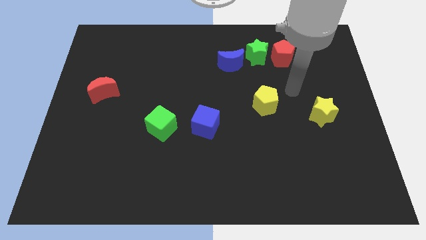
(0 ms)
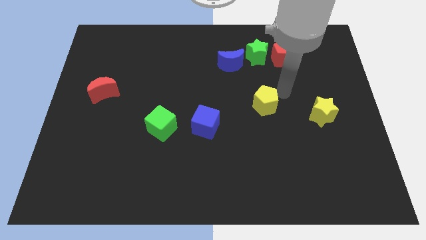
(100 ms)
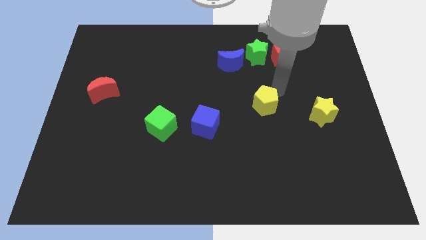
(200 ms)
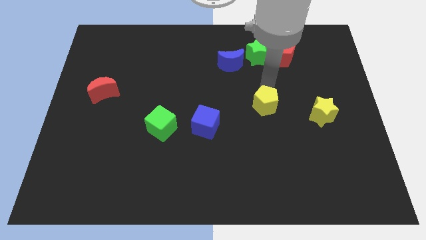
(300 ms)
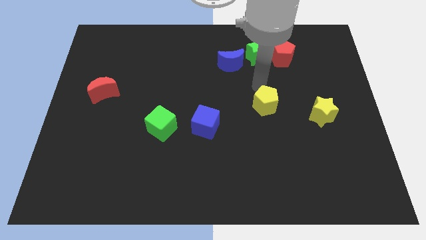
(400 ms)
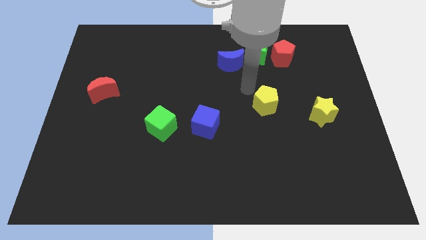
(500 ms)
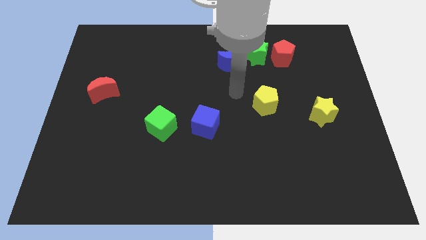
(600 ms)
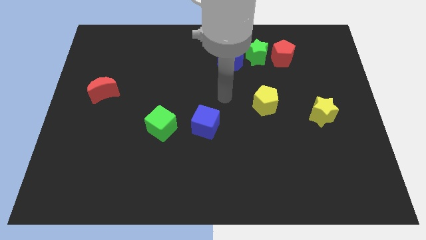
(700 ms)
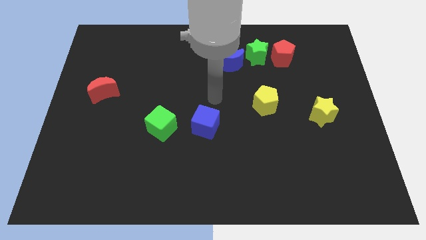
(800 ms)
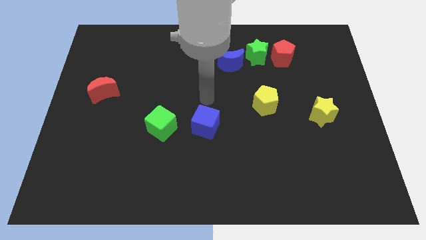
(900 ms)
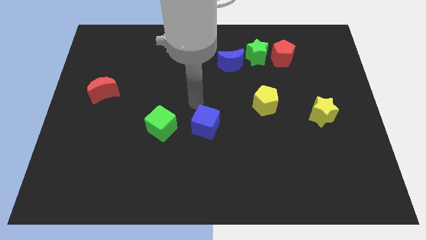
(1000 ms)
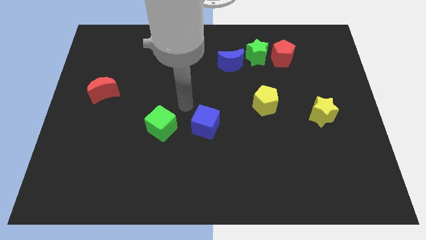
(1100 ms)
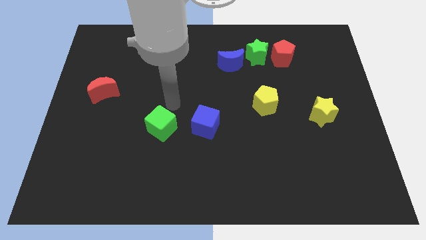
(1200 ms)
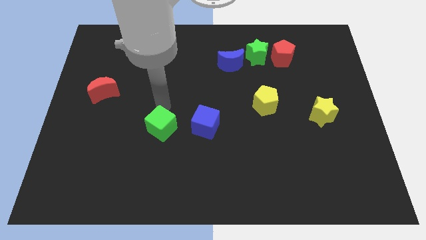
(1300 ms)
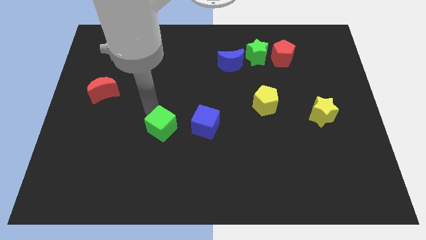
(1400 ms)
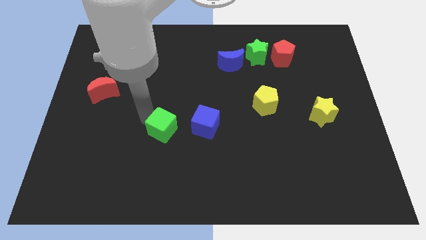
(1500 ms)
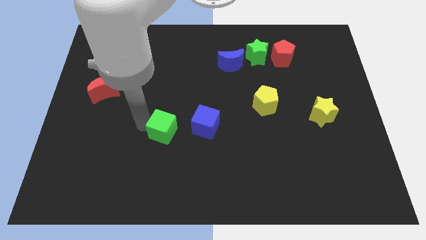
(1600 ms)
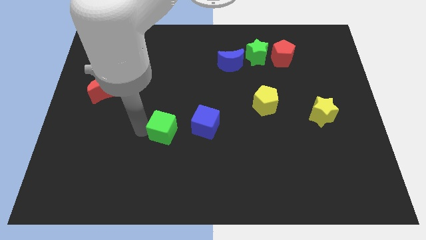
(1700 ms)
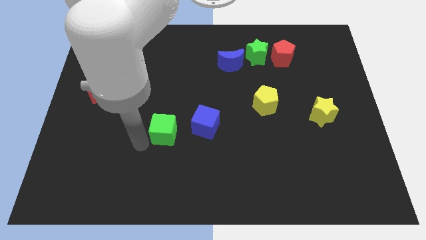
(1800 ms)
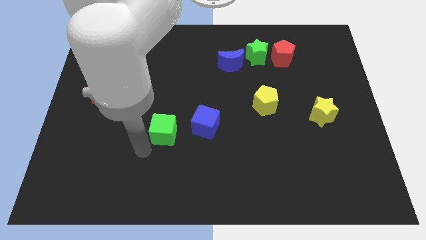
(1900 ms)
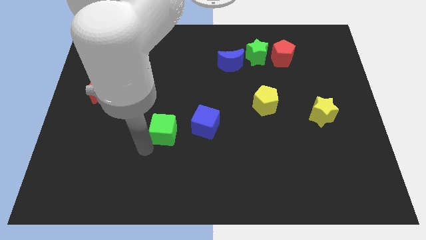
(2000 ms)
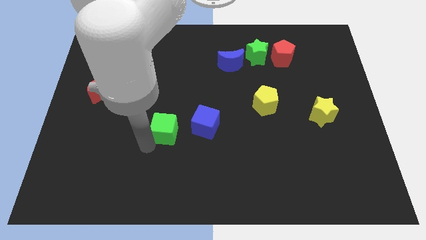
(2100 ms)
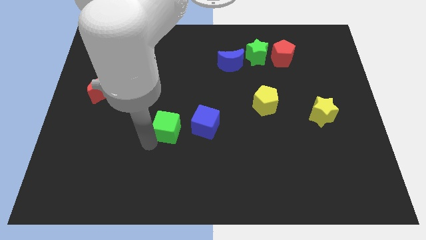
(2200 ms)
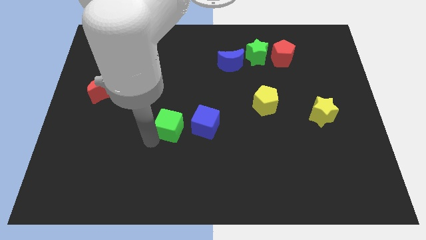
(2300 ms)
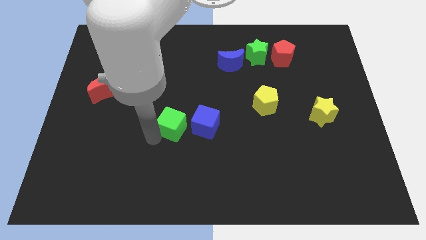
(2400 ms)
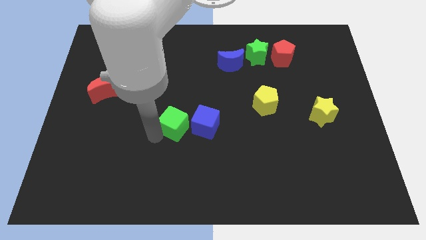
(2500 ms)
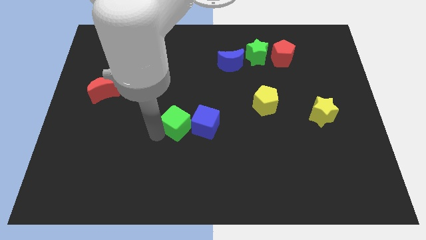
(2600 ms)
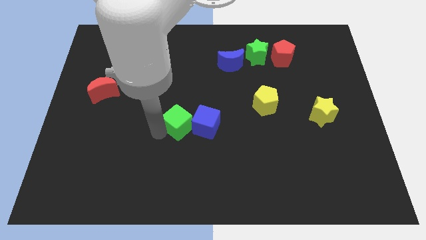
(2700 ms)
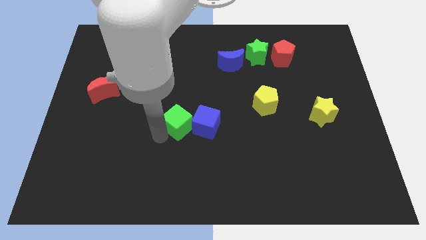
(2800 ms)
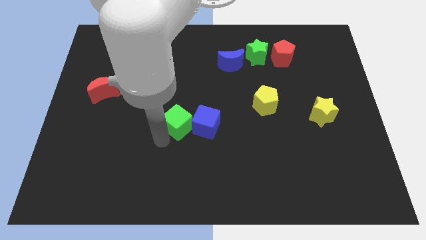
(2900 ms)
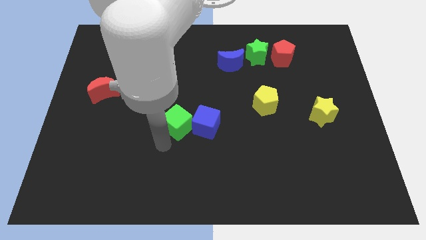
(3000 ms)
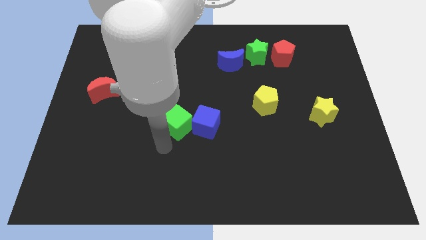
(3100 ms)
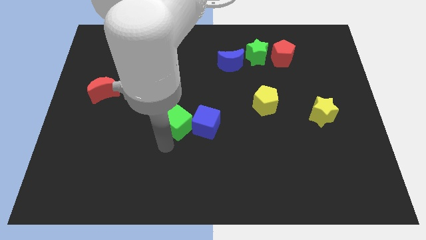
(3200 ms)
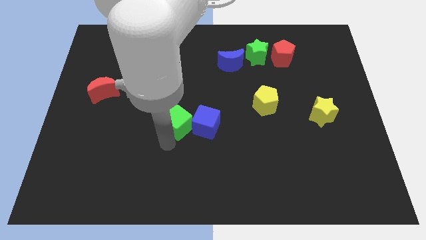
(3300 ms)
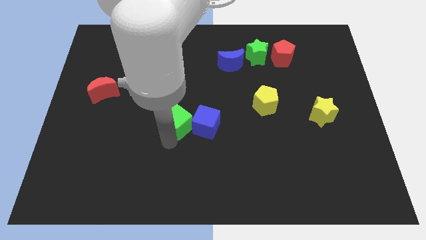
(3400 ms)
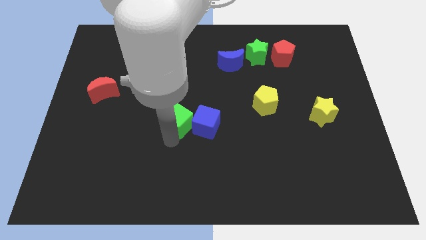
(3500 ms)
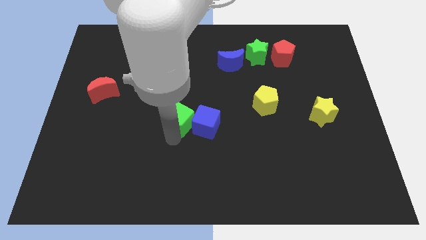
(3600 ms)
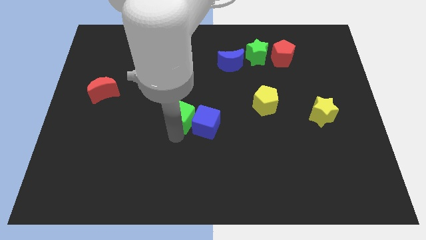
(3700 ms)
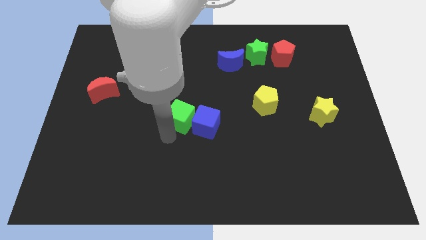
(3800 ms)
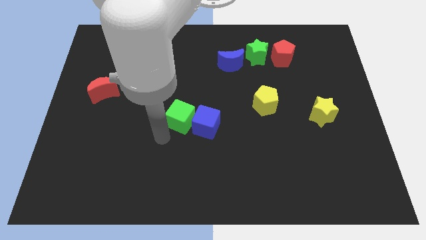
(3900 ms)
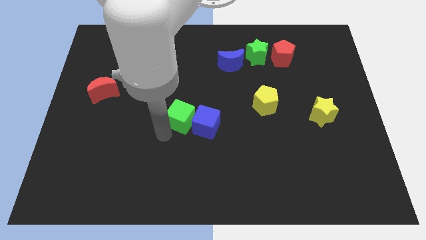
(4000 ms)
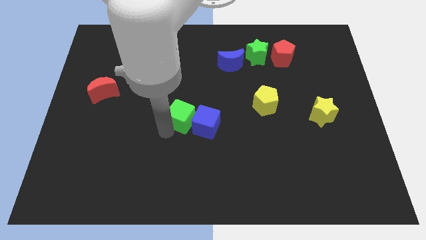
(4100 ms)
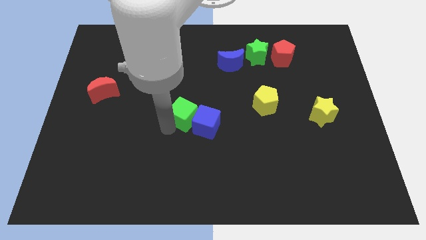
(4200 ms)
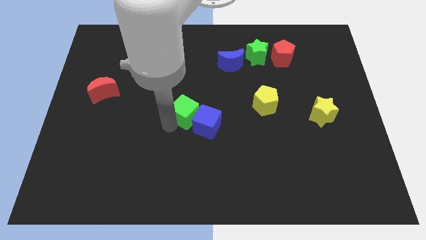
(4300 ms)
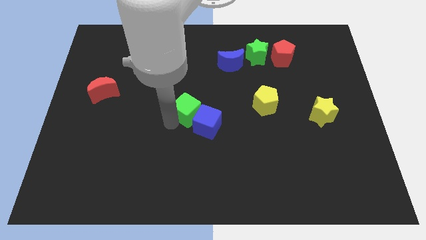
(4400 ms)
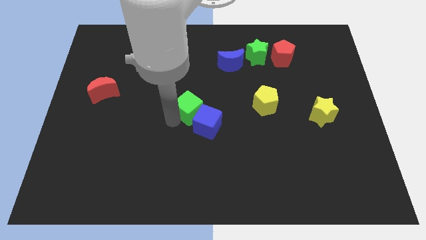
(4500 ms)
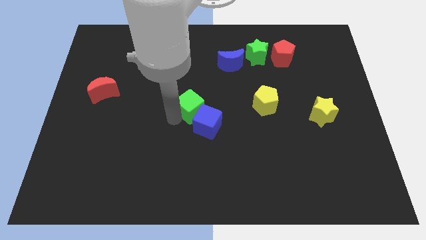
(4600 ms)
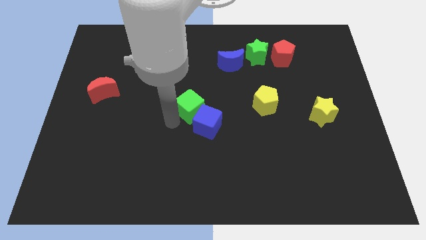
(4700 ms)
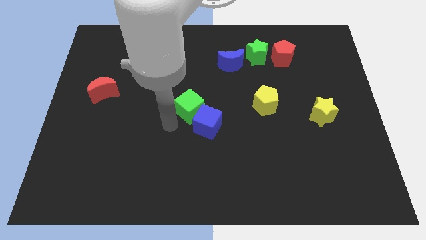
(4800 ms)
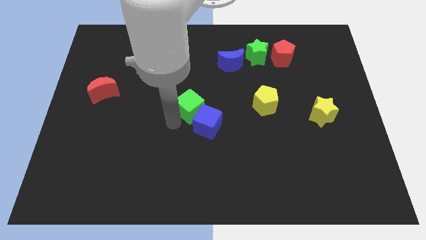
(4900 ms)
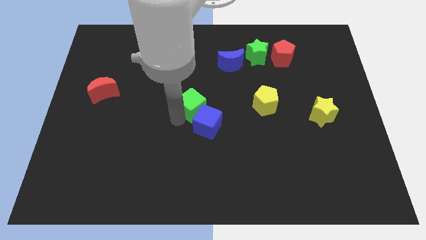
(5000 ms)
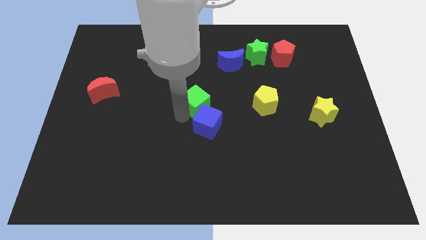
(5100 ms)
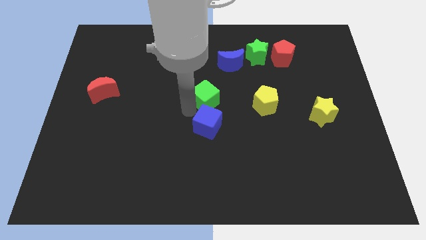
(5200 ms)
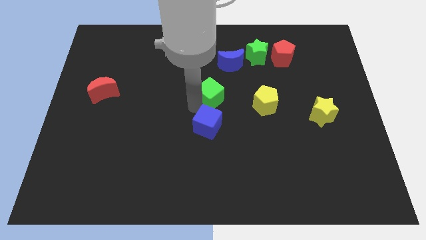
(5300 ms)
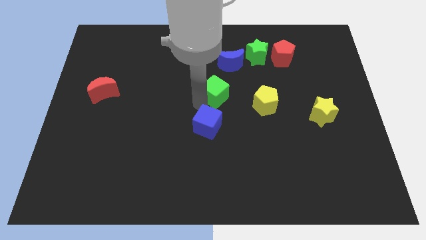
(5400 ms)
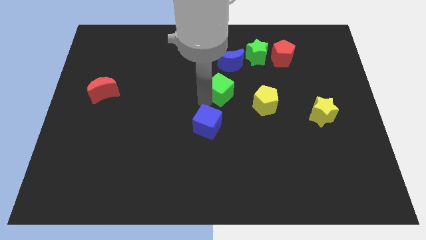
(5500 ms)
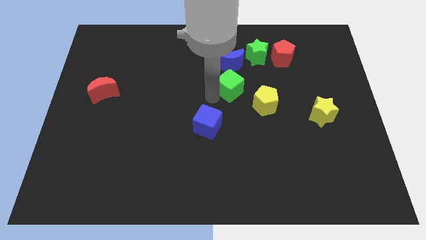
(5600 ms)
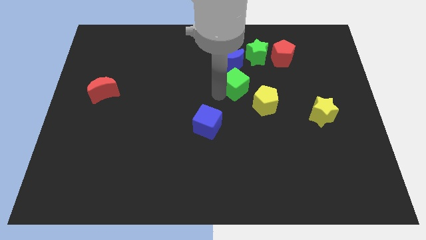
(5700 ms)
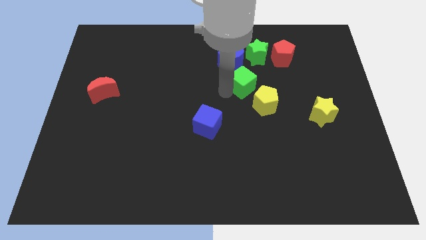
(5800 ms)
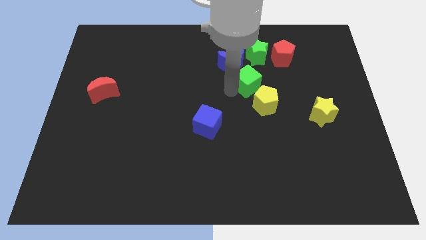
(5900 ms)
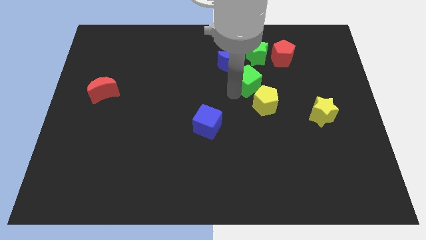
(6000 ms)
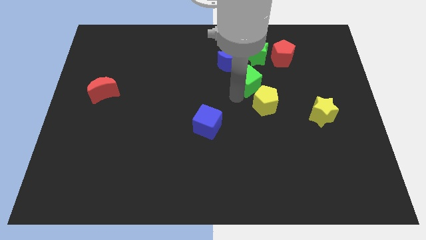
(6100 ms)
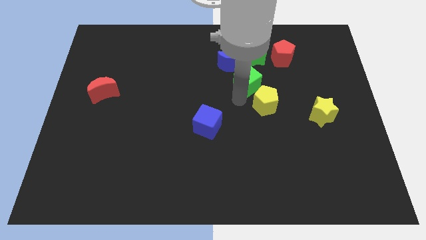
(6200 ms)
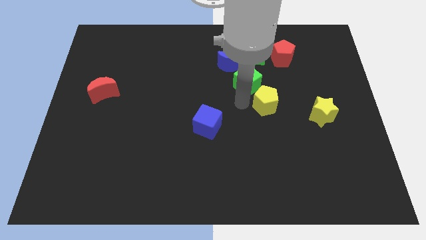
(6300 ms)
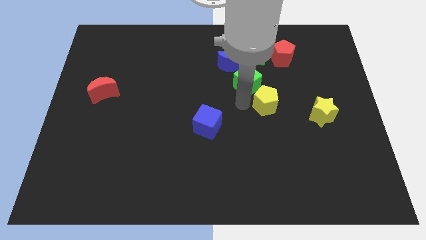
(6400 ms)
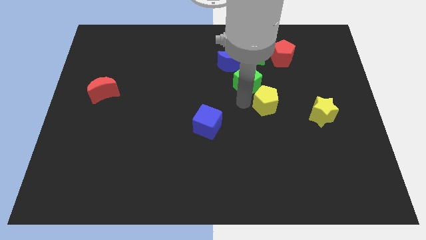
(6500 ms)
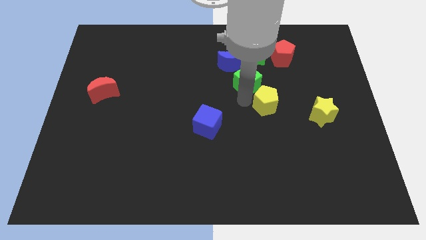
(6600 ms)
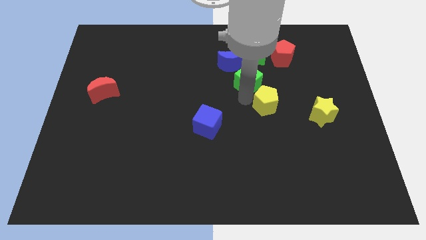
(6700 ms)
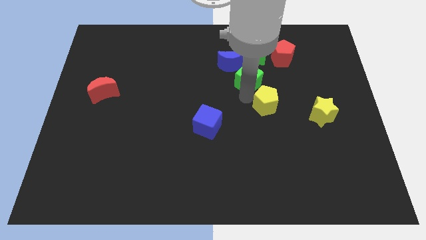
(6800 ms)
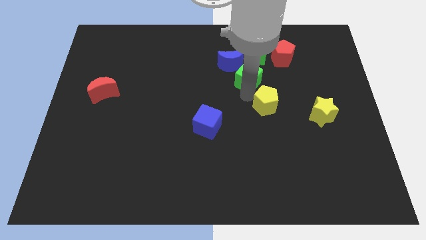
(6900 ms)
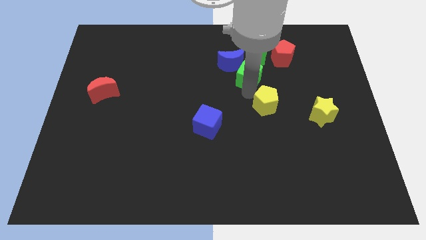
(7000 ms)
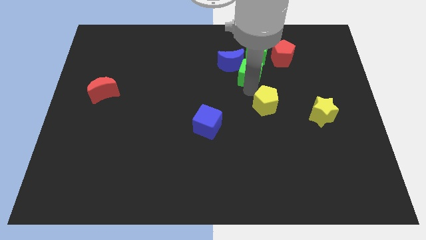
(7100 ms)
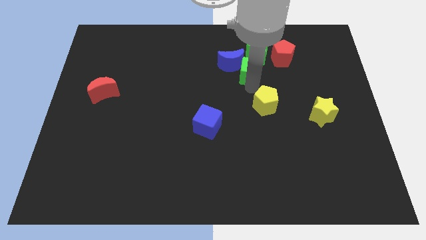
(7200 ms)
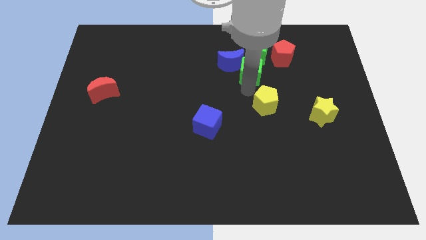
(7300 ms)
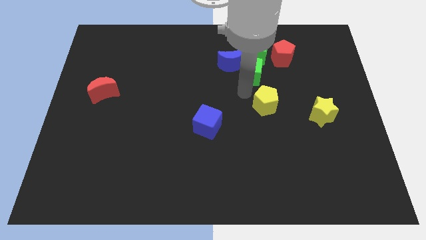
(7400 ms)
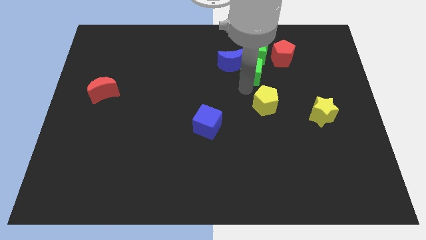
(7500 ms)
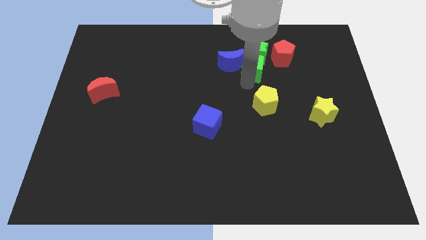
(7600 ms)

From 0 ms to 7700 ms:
slide the green cube close to the green star
